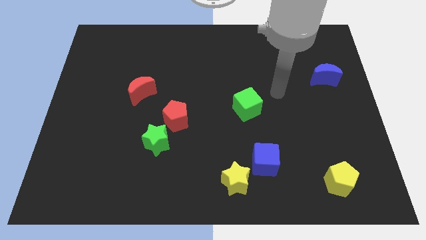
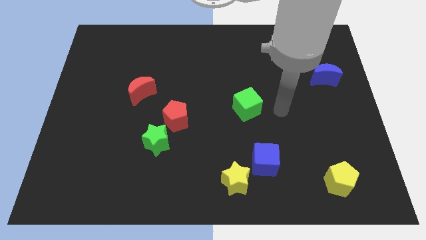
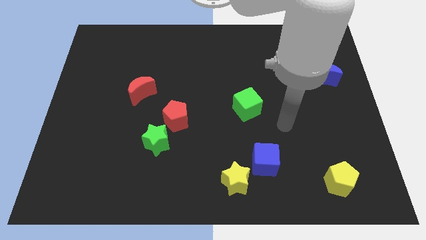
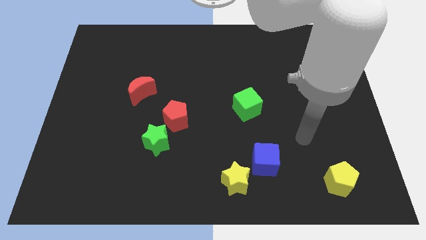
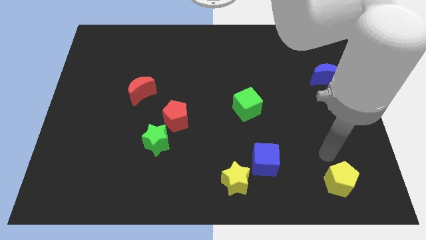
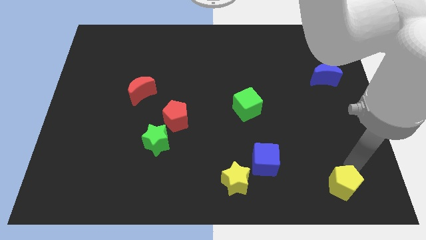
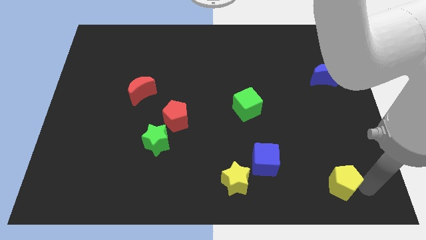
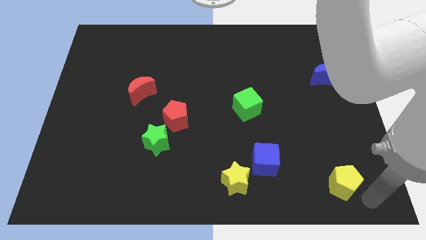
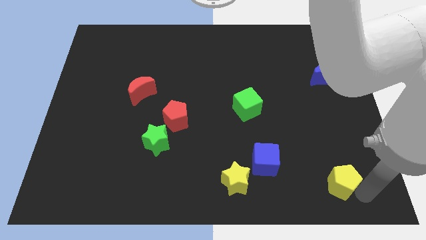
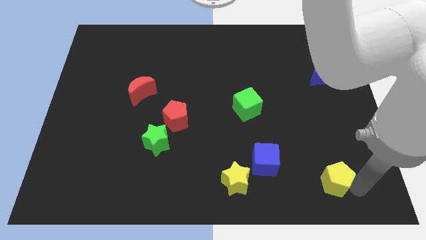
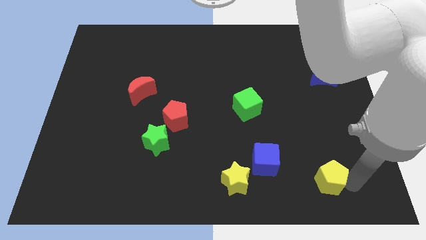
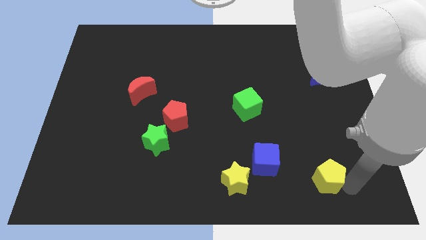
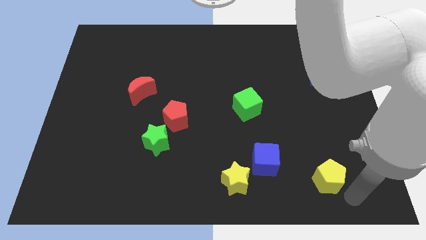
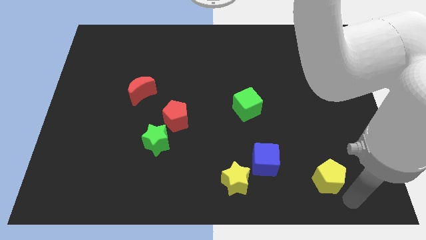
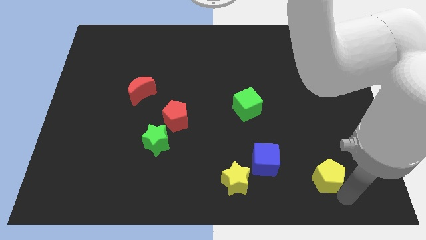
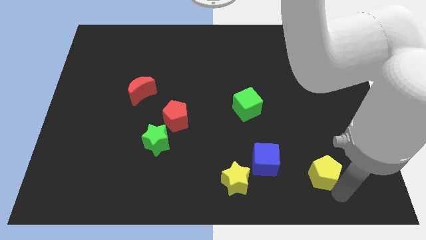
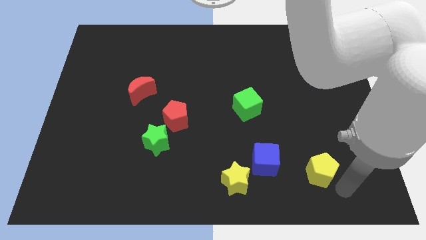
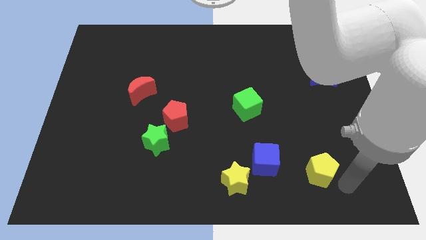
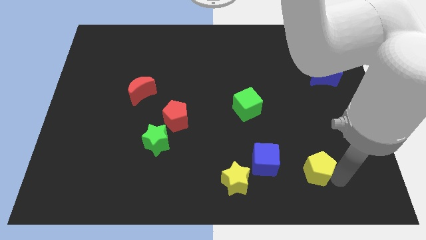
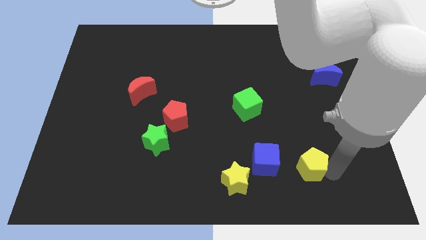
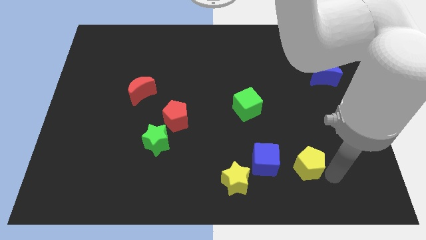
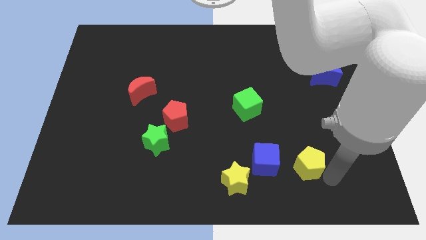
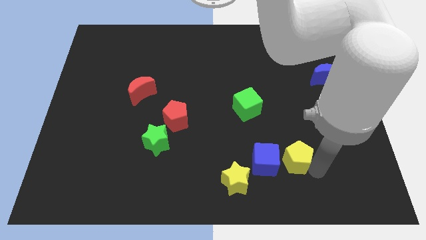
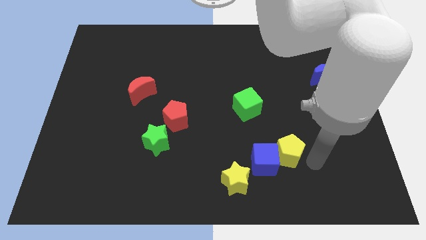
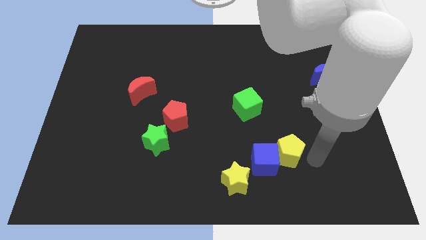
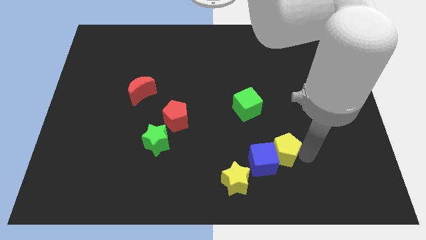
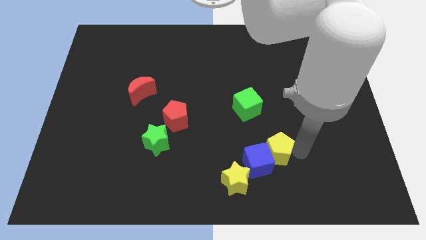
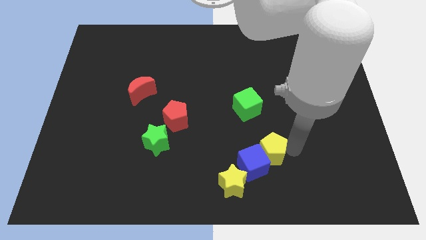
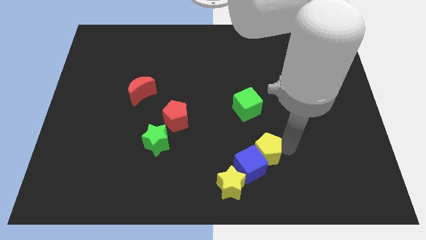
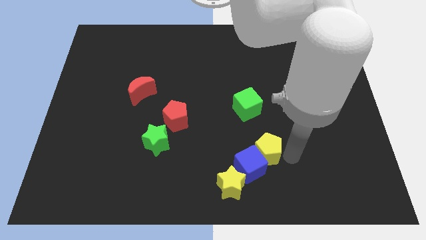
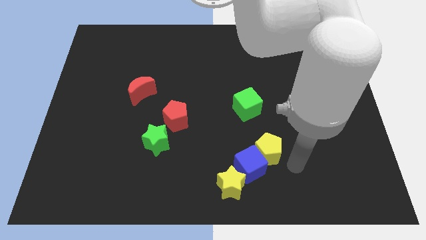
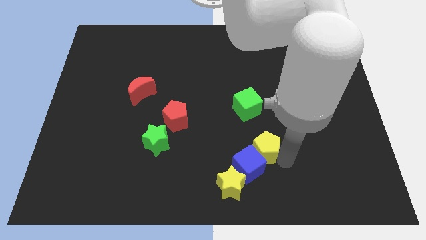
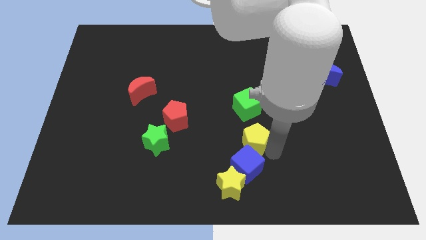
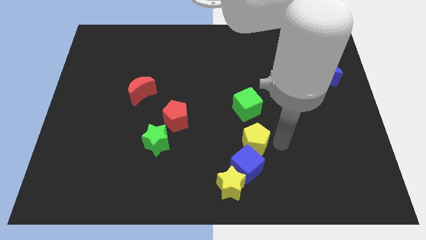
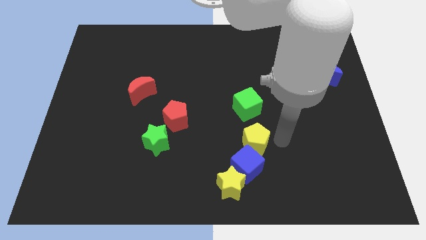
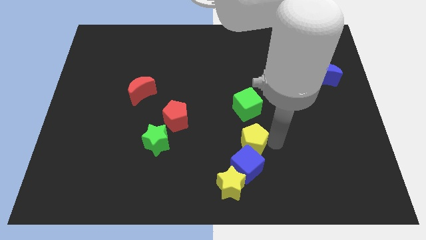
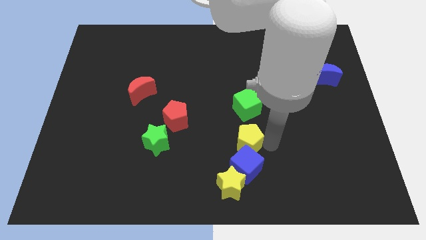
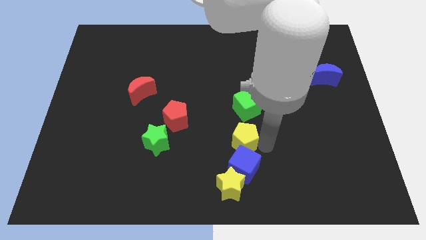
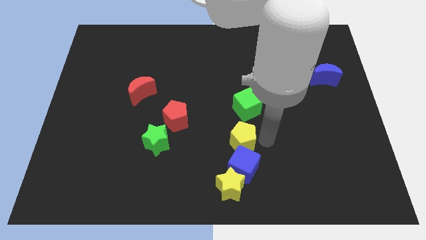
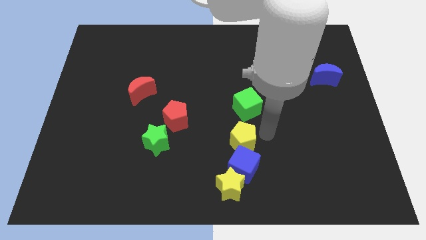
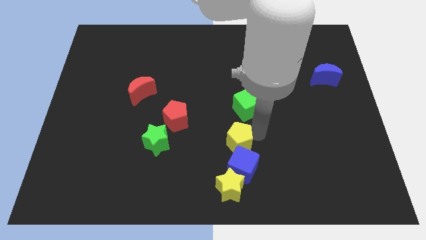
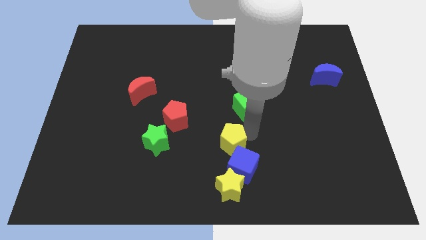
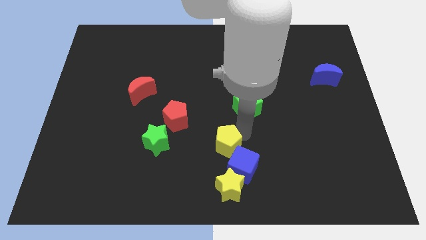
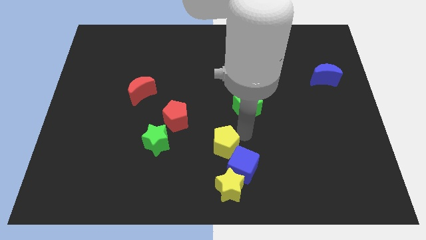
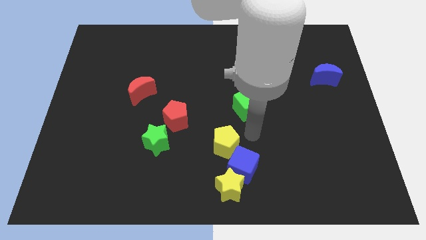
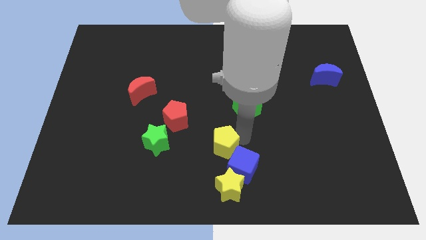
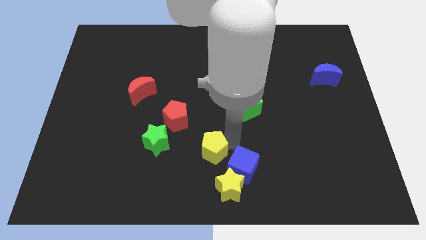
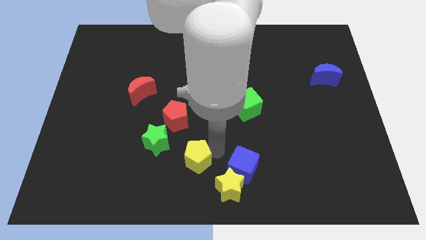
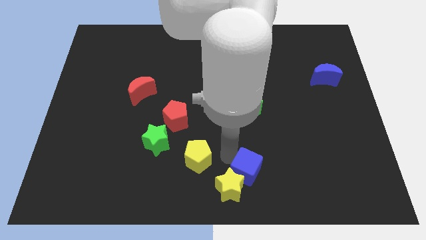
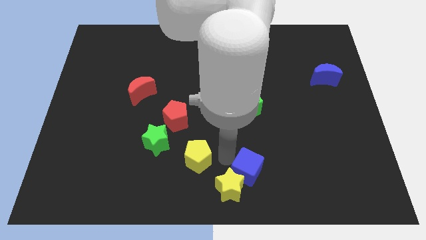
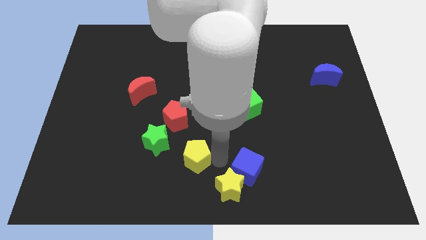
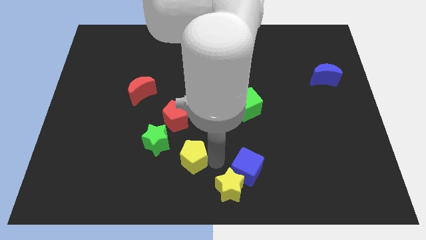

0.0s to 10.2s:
slide the yellow pentagon below the red pentagon

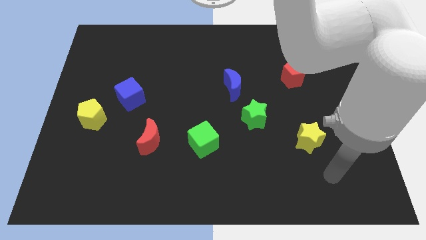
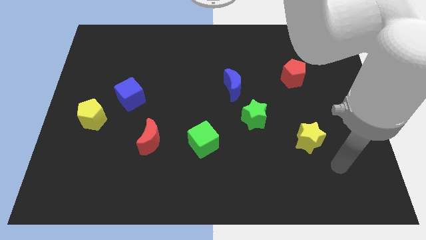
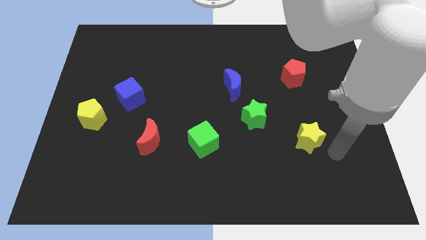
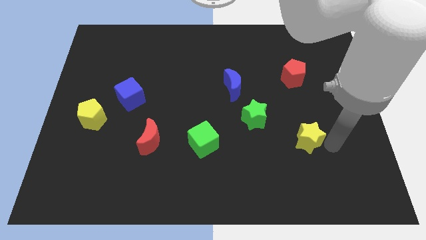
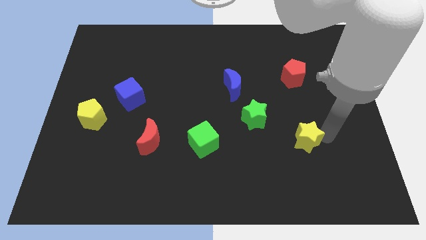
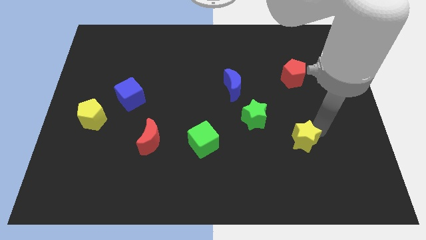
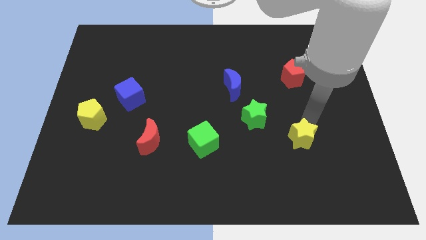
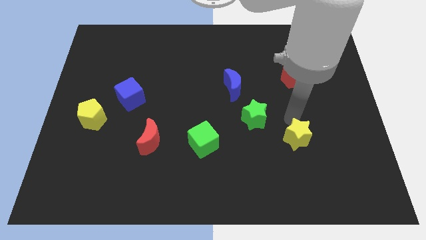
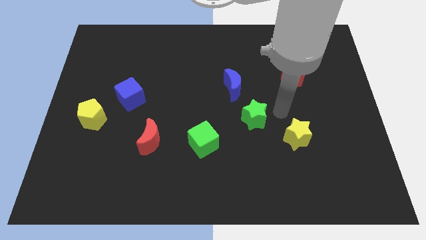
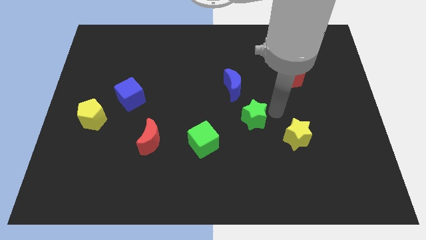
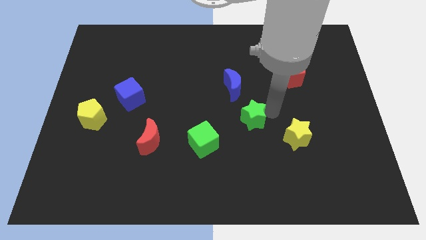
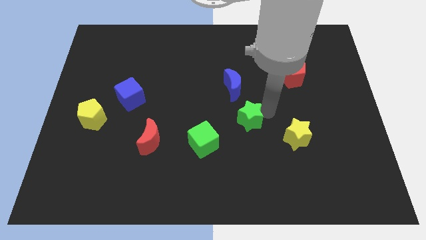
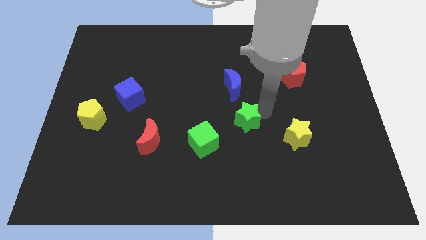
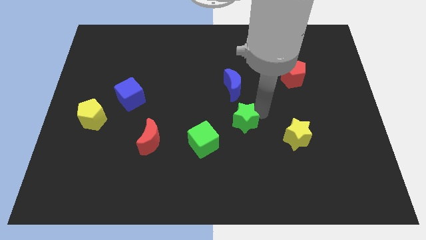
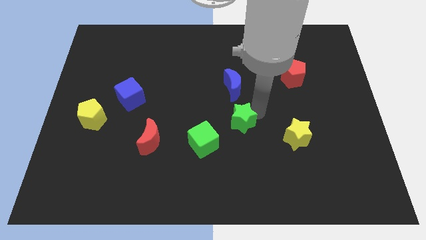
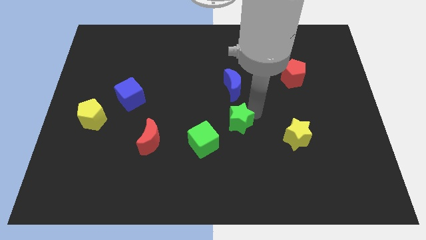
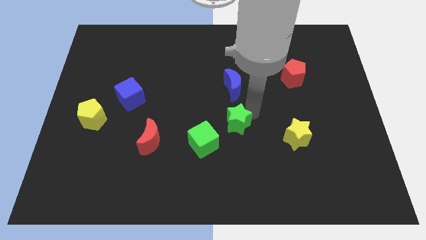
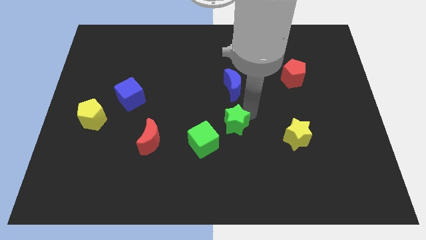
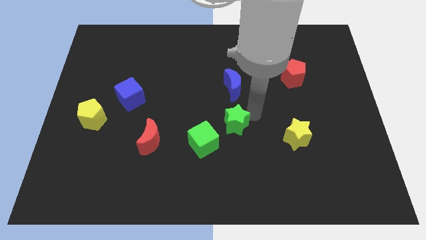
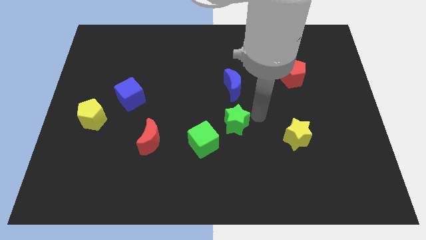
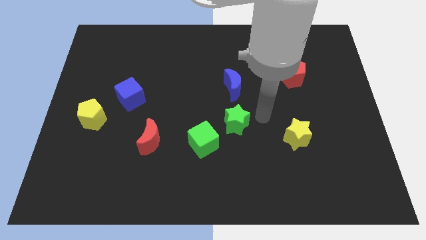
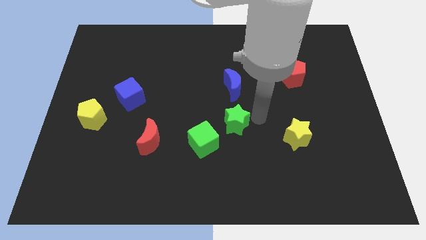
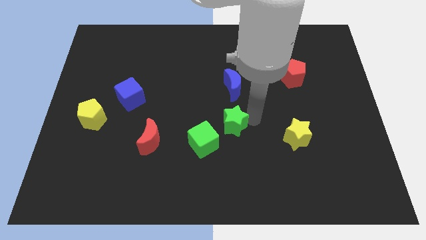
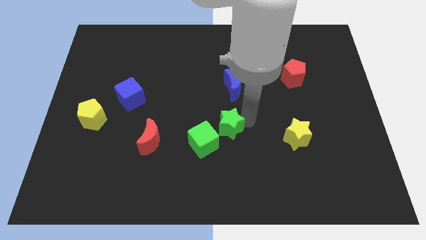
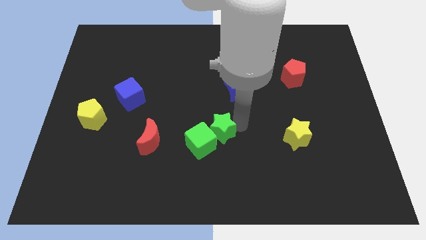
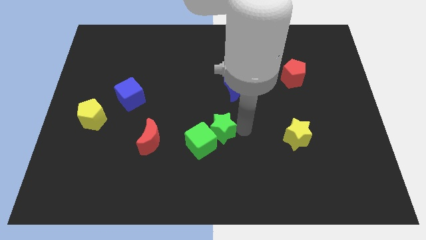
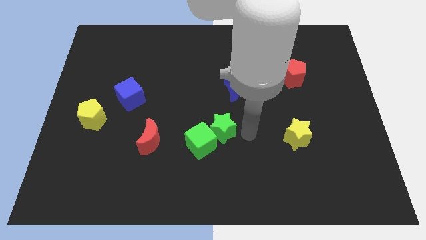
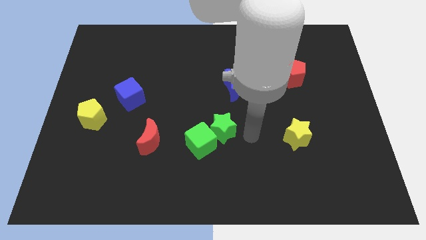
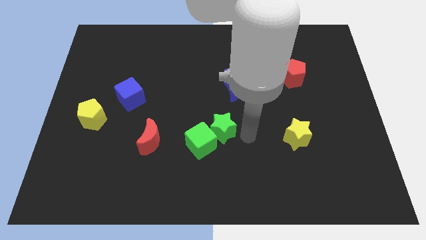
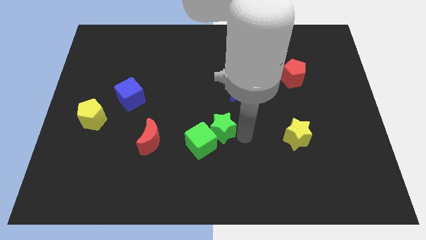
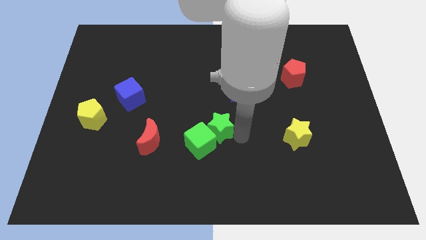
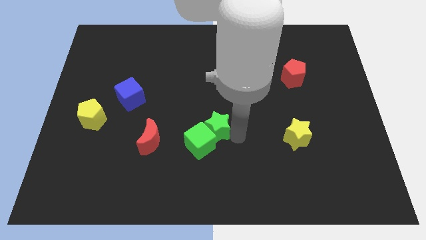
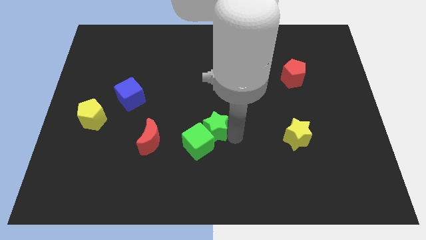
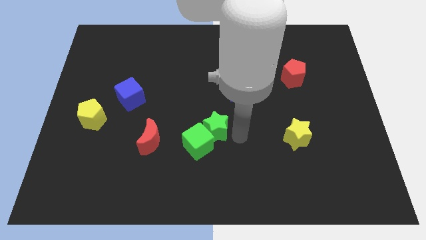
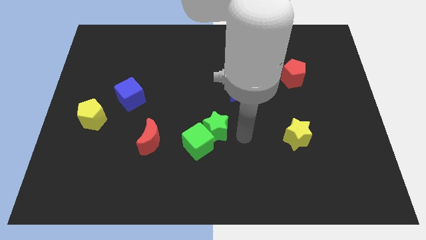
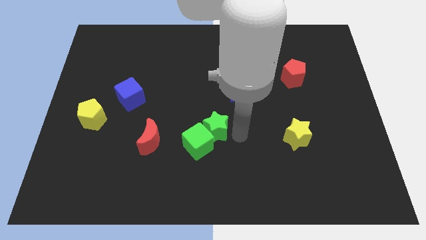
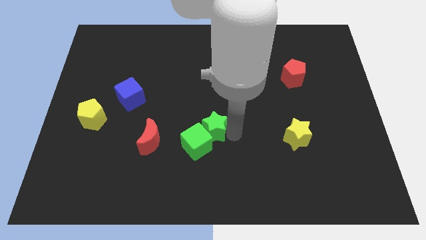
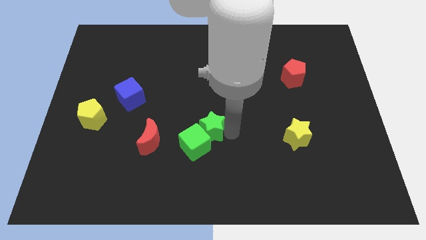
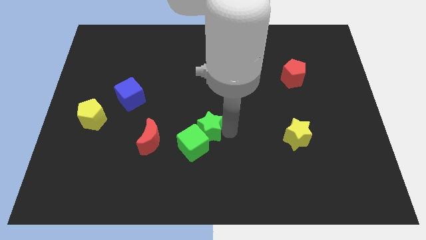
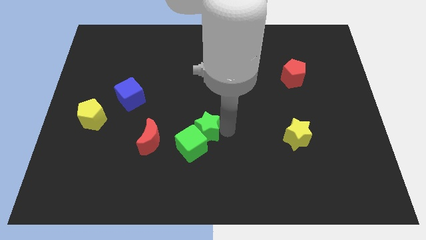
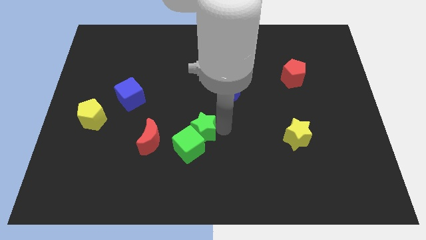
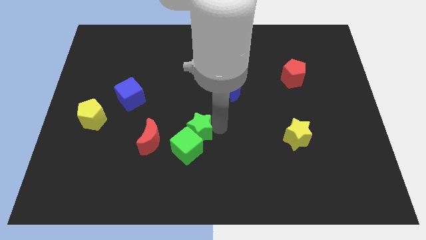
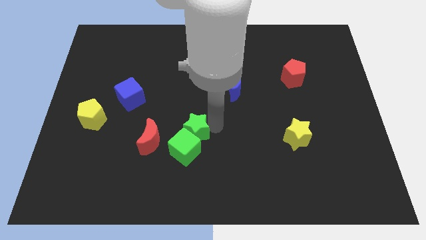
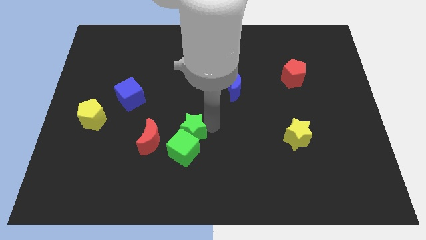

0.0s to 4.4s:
push the green star to the top left side of the green cube
